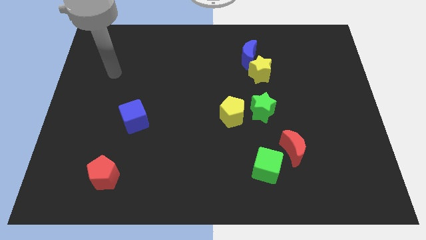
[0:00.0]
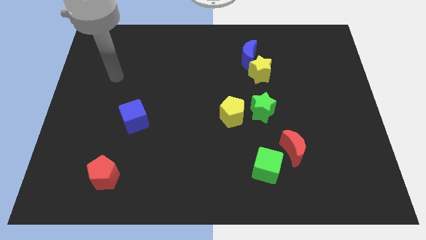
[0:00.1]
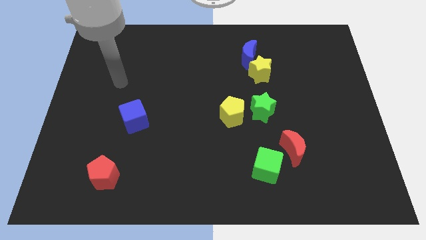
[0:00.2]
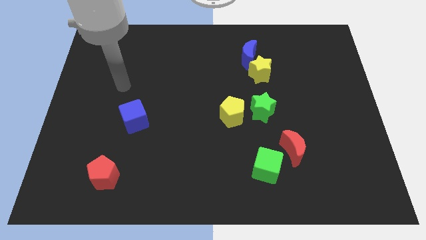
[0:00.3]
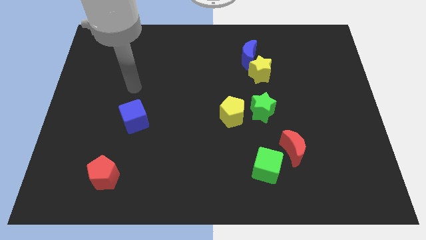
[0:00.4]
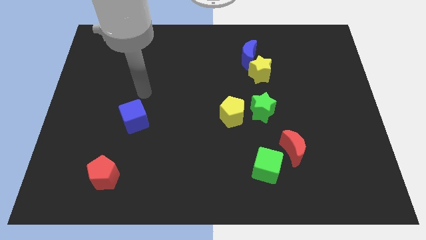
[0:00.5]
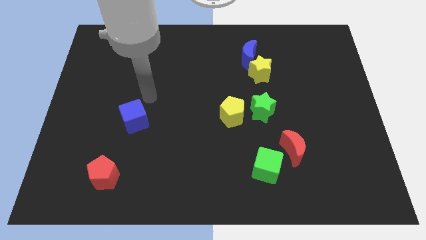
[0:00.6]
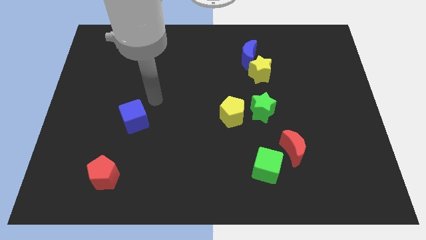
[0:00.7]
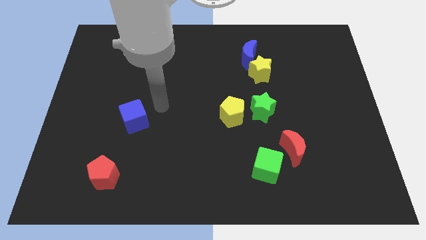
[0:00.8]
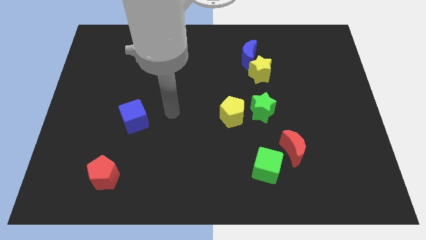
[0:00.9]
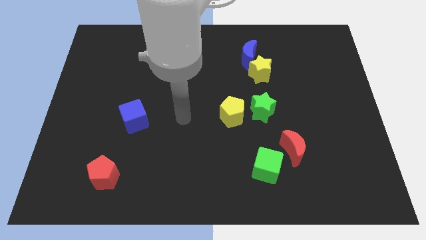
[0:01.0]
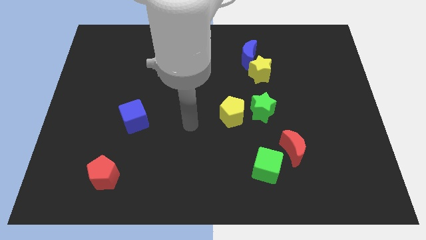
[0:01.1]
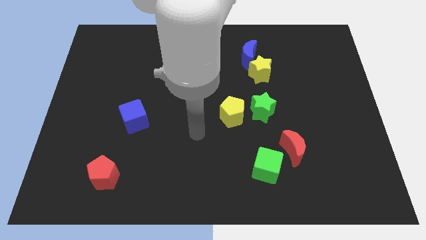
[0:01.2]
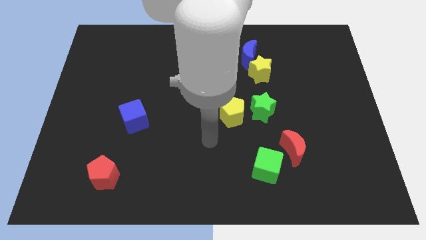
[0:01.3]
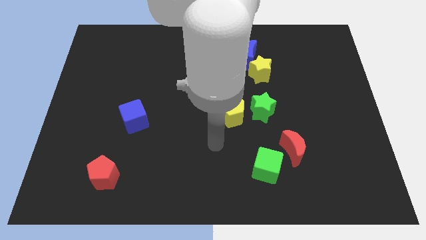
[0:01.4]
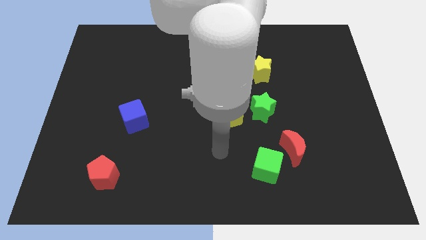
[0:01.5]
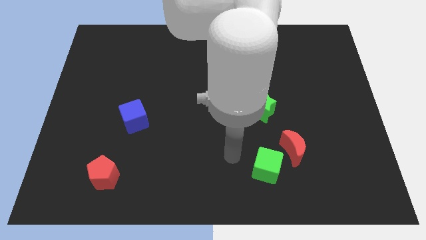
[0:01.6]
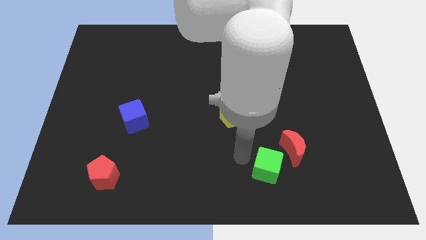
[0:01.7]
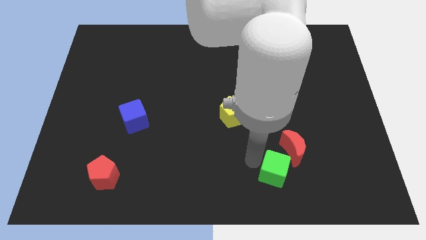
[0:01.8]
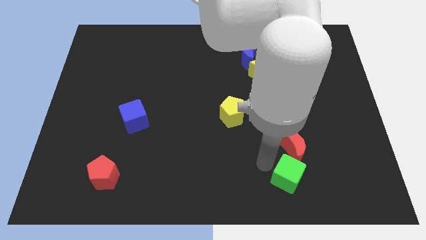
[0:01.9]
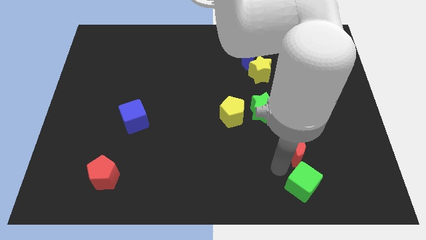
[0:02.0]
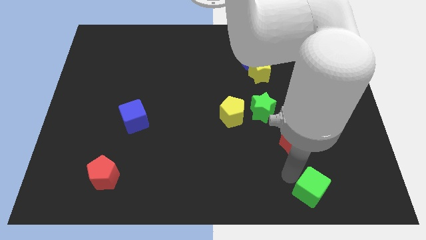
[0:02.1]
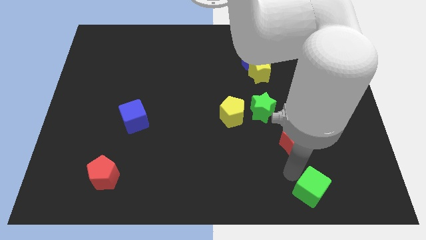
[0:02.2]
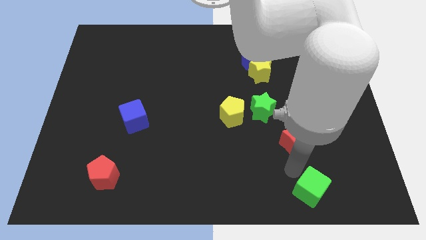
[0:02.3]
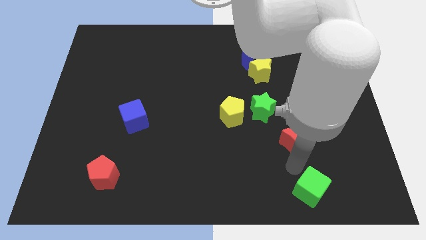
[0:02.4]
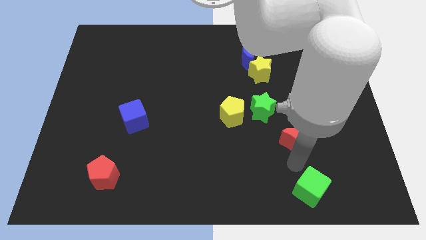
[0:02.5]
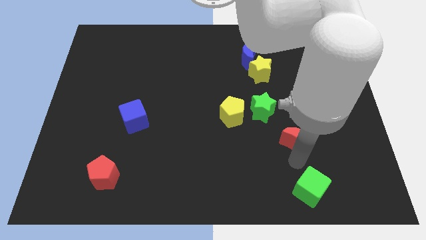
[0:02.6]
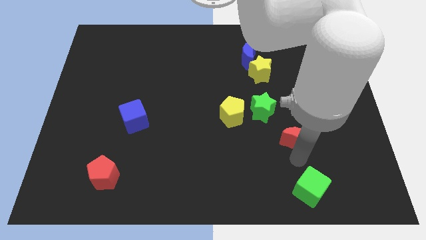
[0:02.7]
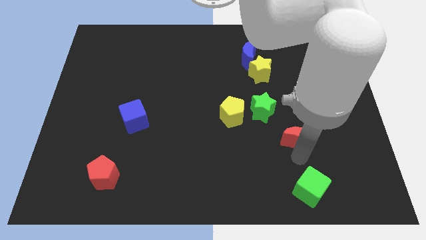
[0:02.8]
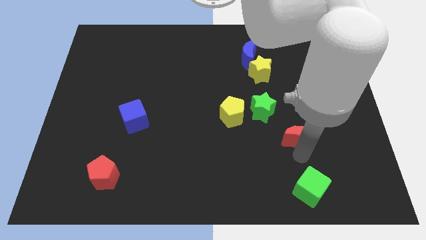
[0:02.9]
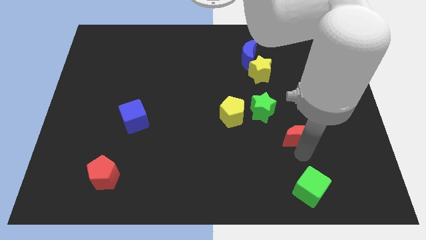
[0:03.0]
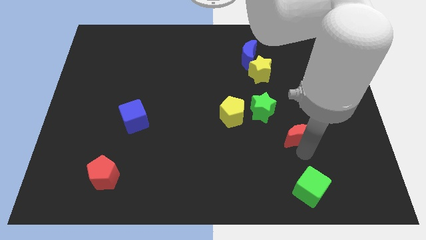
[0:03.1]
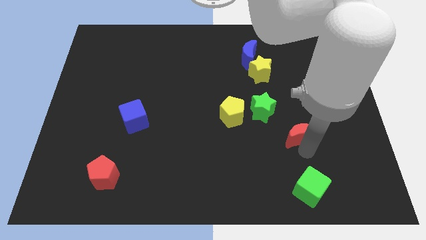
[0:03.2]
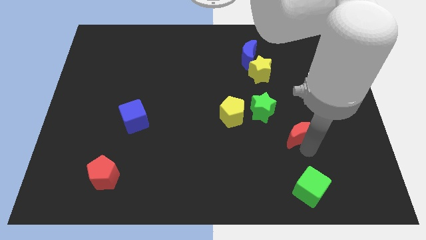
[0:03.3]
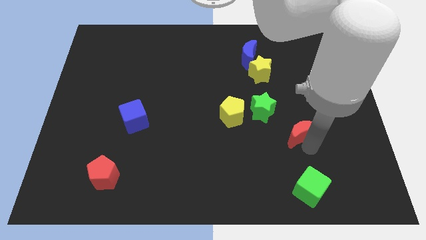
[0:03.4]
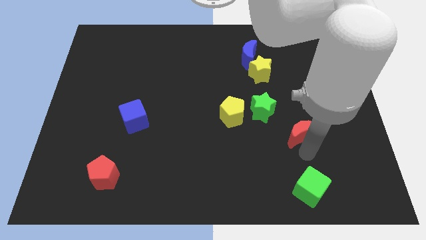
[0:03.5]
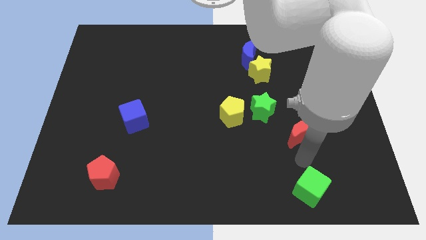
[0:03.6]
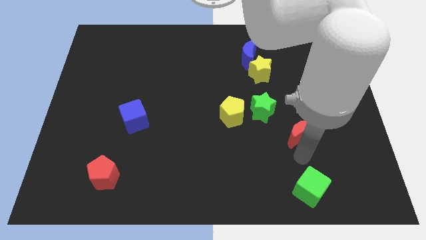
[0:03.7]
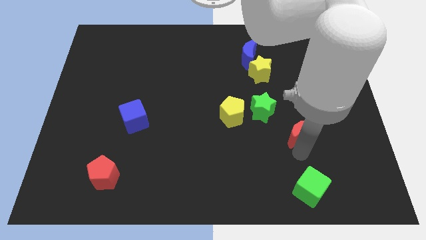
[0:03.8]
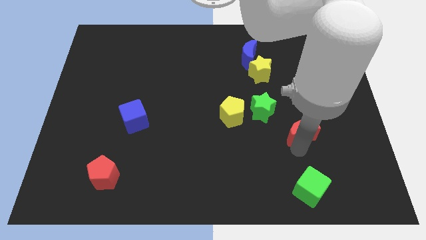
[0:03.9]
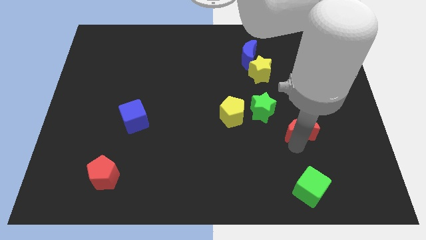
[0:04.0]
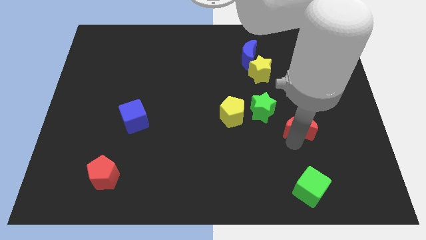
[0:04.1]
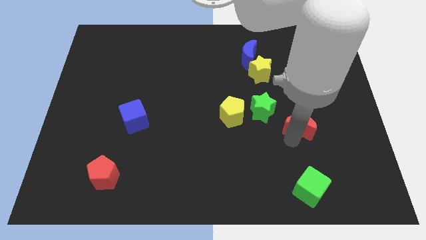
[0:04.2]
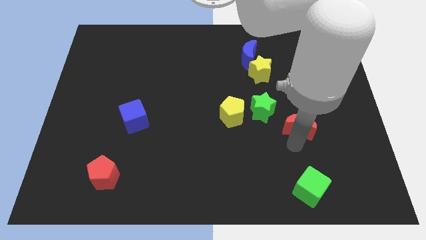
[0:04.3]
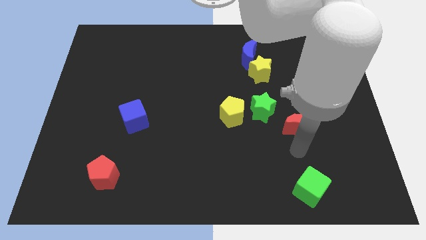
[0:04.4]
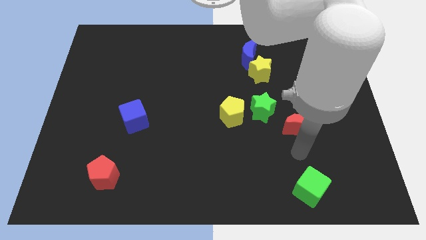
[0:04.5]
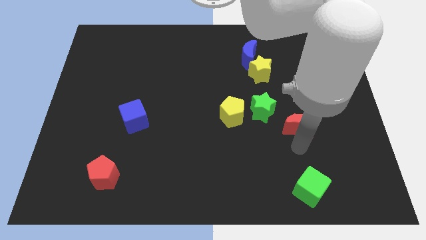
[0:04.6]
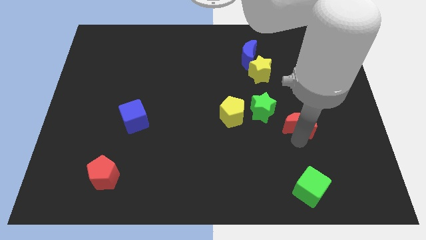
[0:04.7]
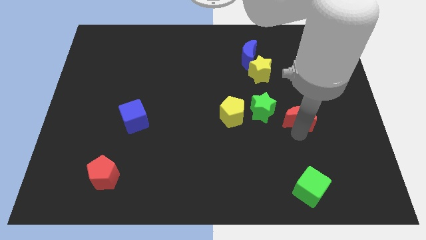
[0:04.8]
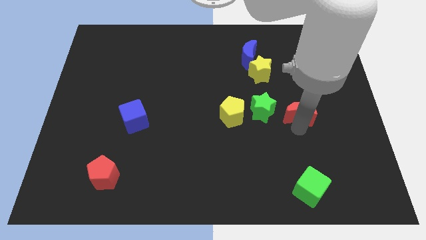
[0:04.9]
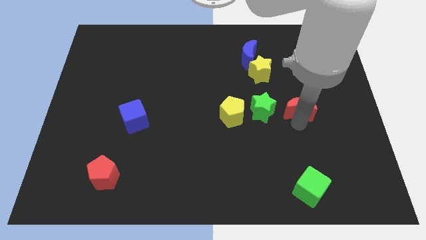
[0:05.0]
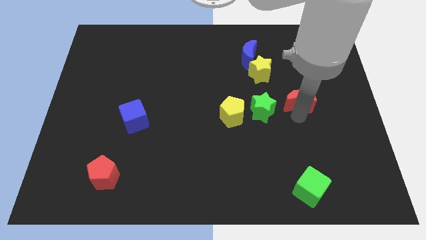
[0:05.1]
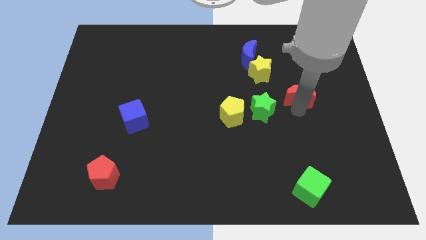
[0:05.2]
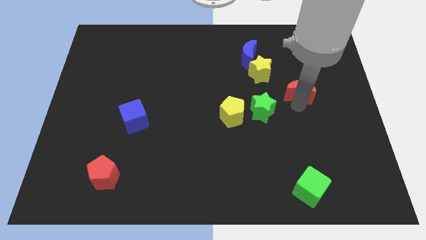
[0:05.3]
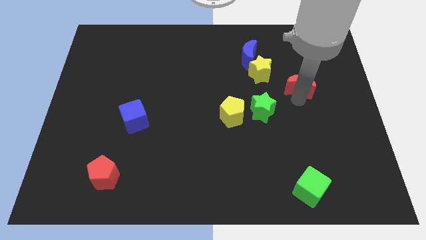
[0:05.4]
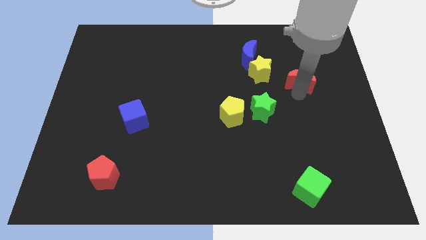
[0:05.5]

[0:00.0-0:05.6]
slide the red moon to the right of the yellow star

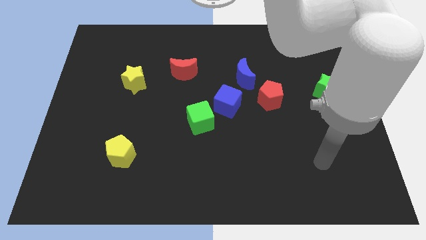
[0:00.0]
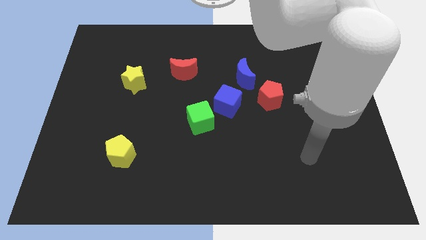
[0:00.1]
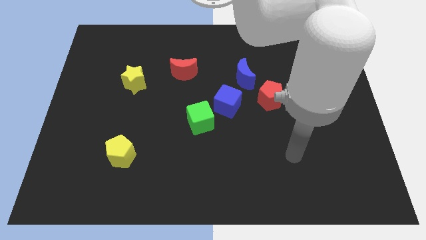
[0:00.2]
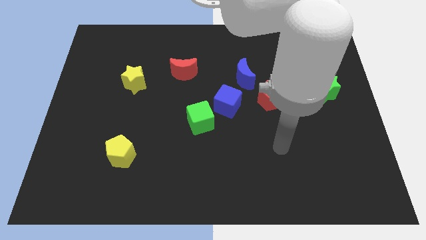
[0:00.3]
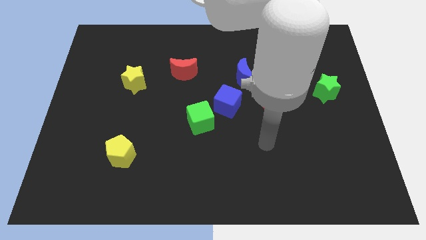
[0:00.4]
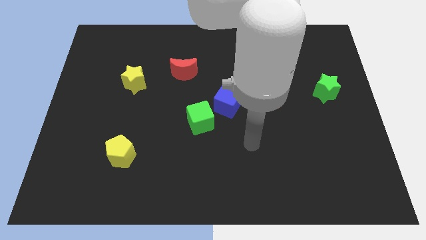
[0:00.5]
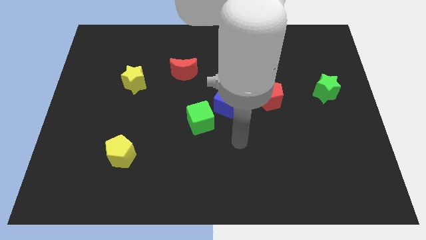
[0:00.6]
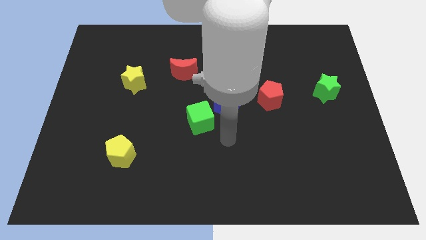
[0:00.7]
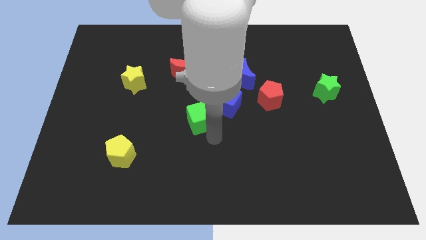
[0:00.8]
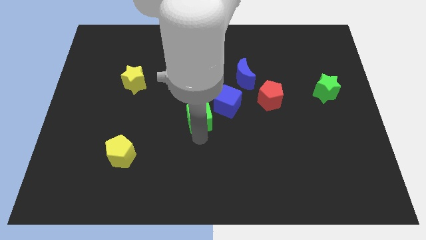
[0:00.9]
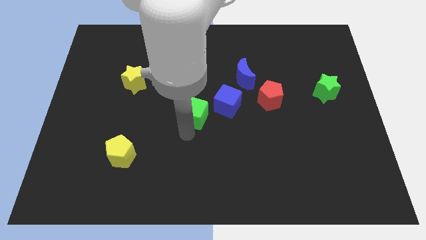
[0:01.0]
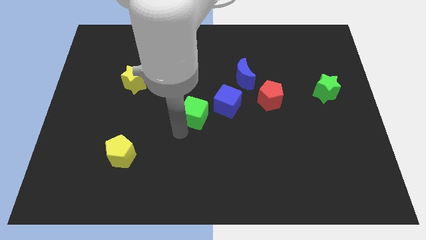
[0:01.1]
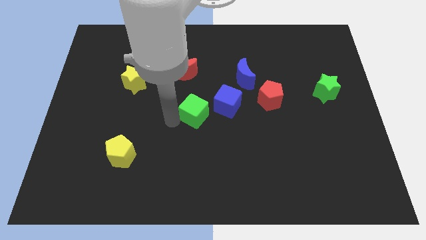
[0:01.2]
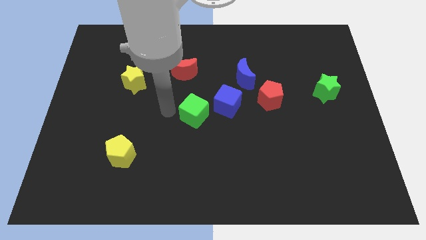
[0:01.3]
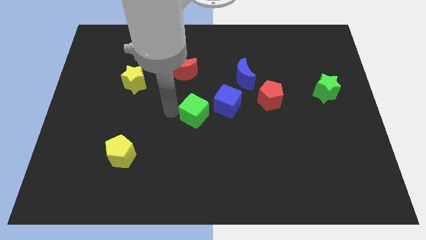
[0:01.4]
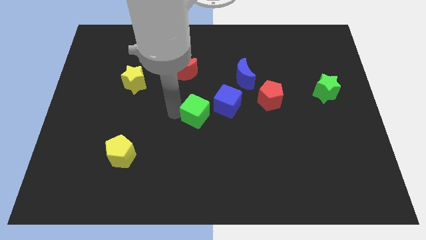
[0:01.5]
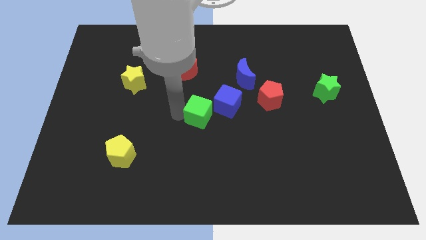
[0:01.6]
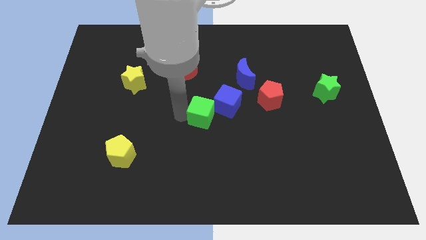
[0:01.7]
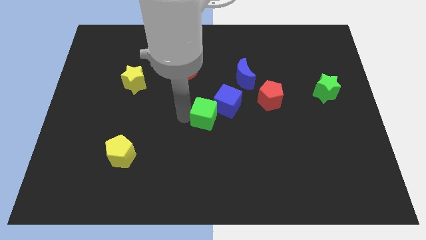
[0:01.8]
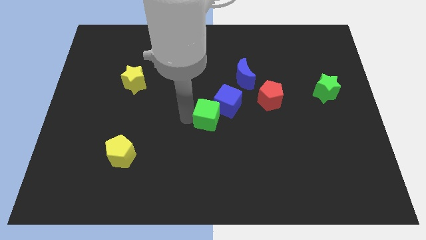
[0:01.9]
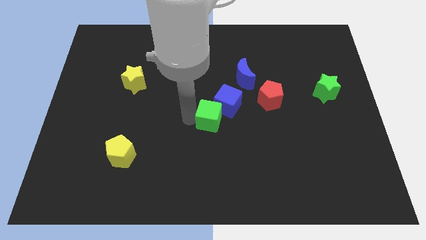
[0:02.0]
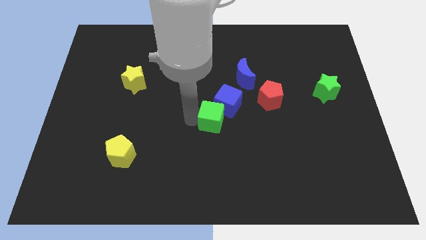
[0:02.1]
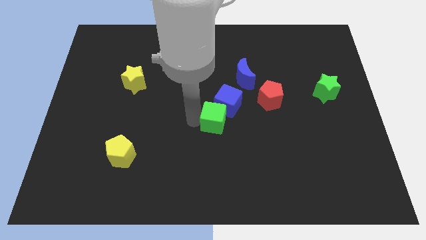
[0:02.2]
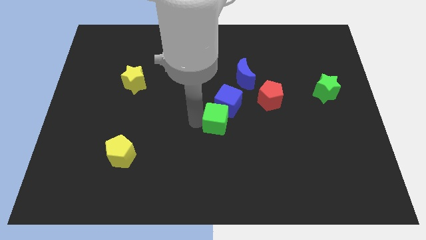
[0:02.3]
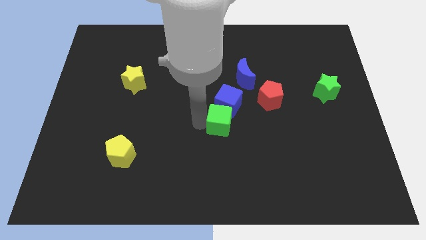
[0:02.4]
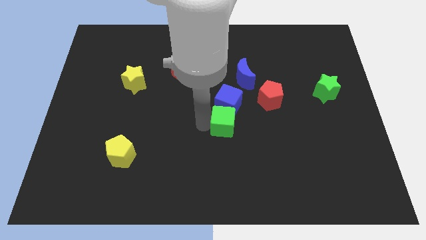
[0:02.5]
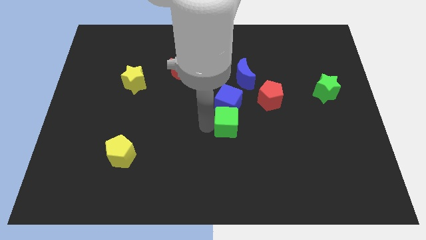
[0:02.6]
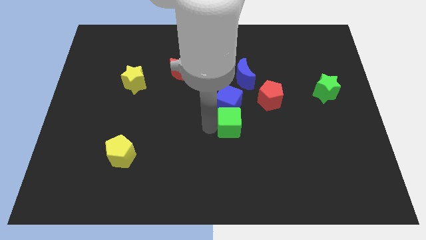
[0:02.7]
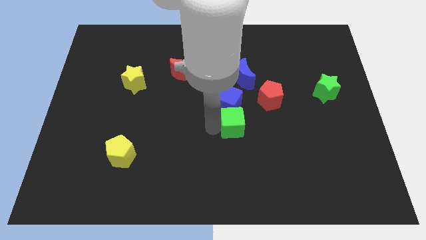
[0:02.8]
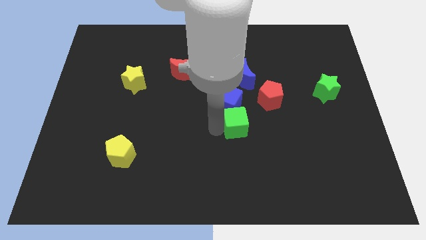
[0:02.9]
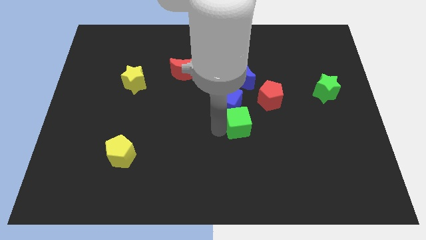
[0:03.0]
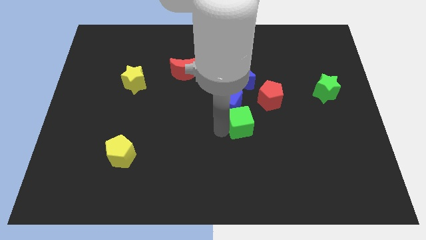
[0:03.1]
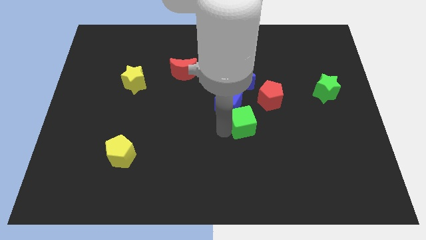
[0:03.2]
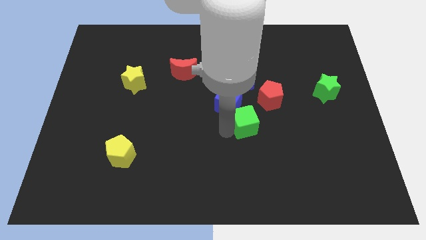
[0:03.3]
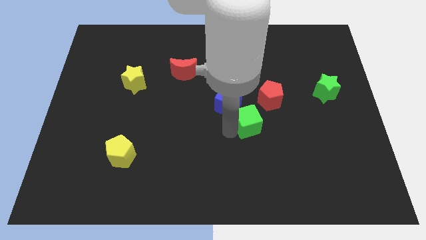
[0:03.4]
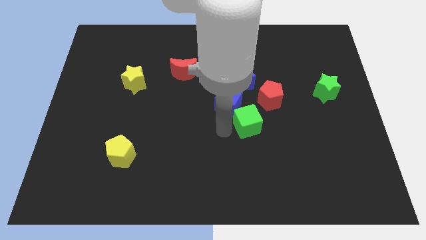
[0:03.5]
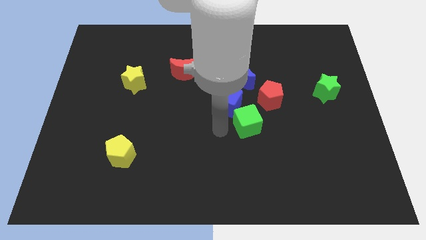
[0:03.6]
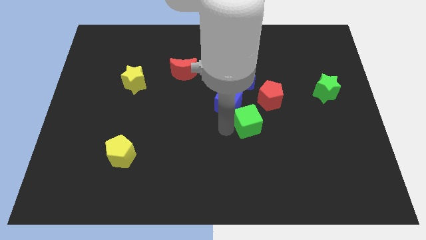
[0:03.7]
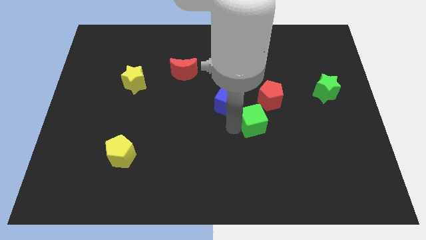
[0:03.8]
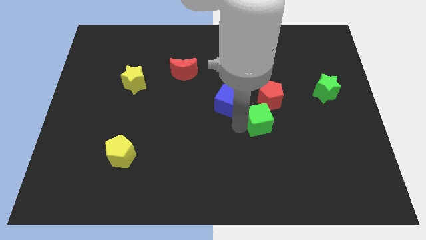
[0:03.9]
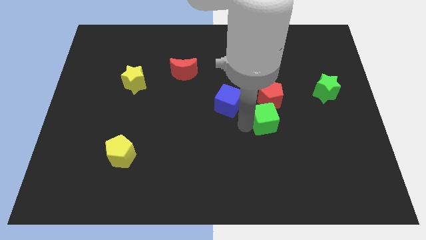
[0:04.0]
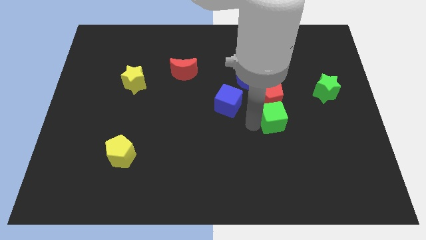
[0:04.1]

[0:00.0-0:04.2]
slide the green cube diagonally down and to the right of the red pentagon
